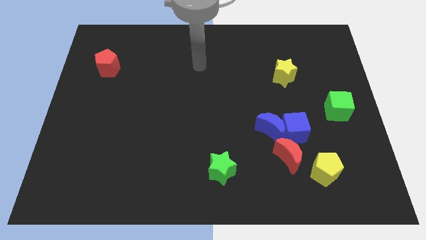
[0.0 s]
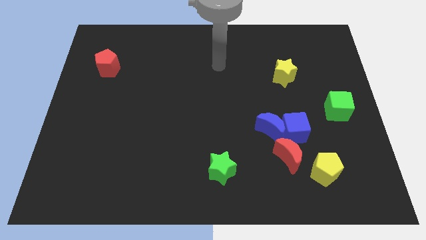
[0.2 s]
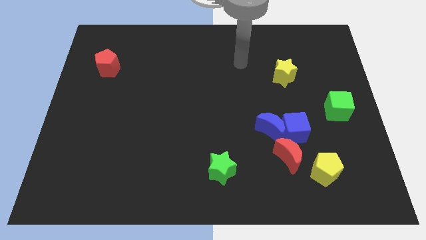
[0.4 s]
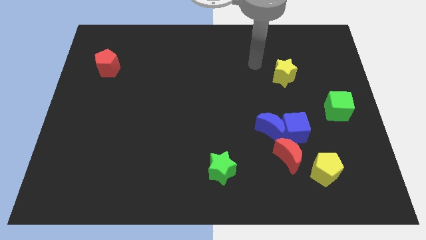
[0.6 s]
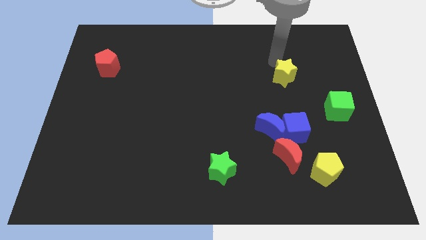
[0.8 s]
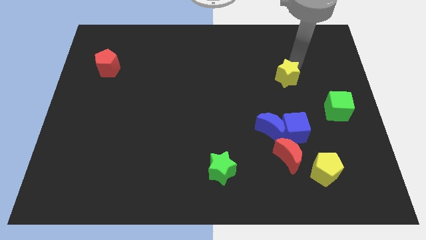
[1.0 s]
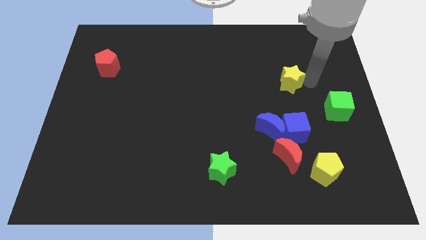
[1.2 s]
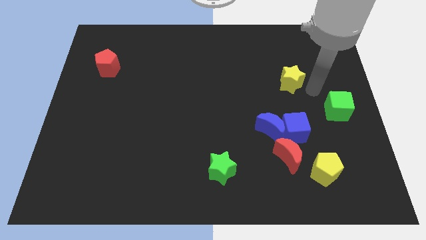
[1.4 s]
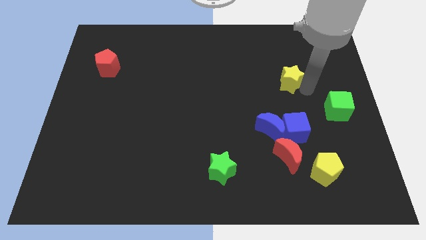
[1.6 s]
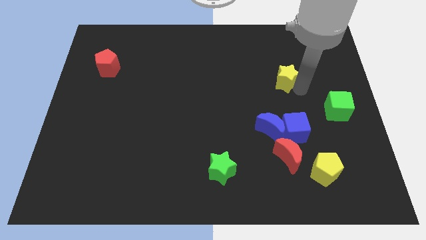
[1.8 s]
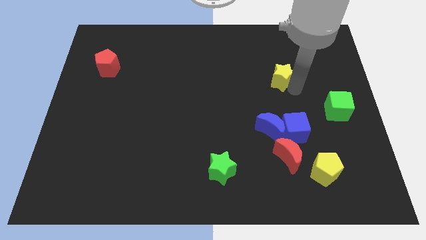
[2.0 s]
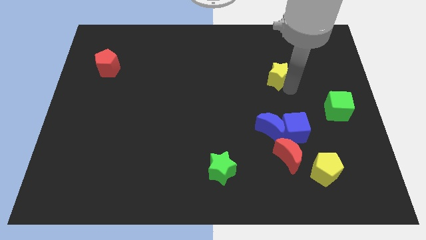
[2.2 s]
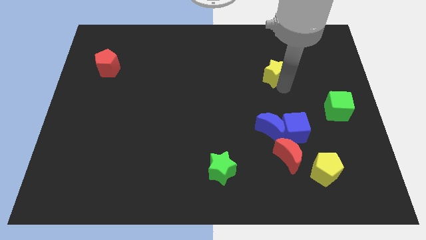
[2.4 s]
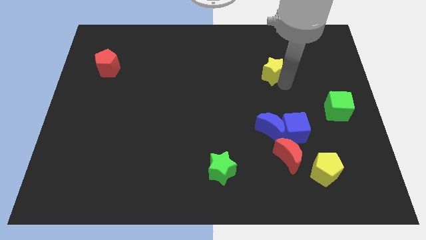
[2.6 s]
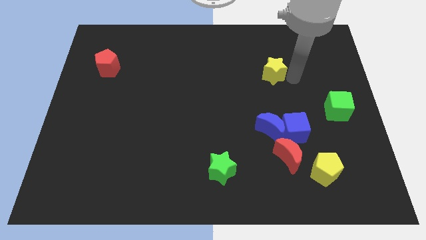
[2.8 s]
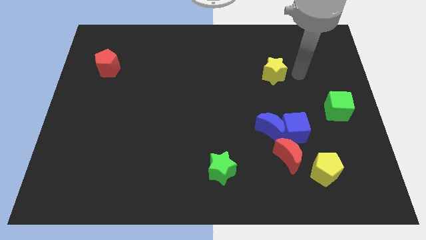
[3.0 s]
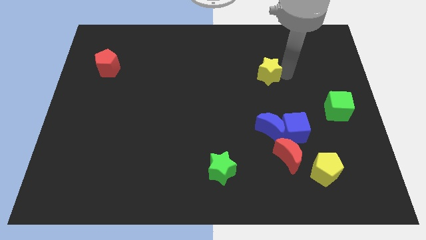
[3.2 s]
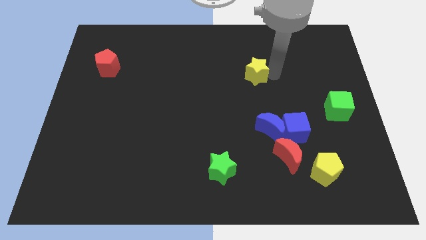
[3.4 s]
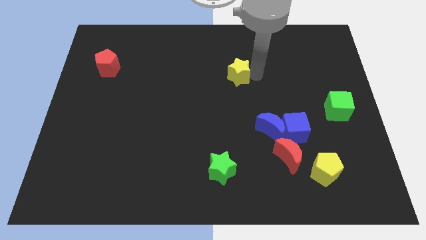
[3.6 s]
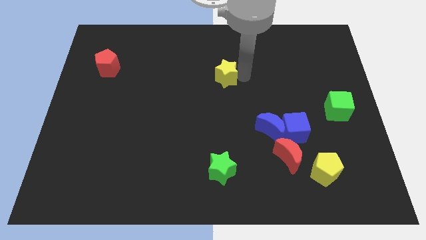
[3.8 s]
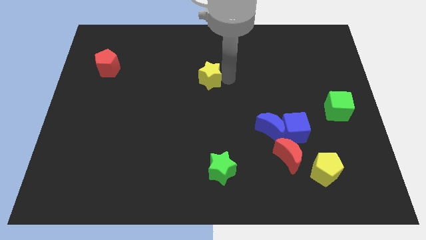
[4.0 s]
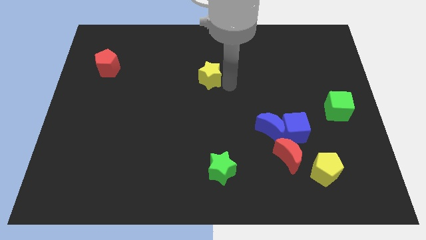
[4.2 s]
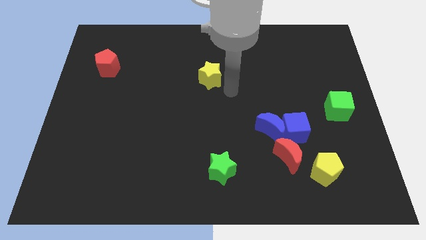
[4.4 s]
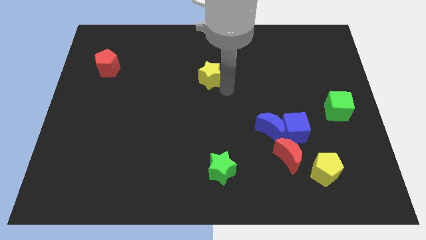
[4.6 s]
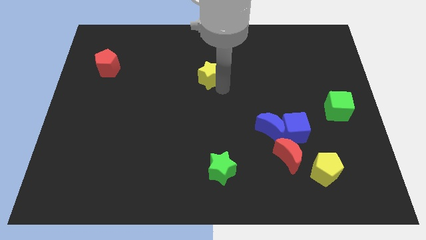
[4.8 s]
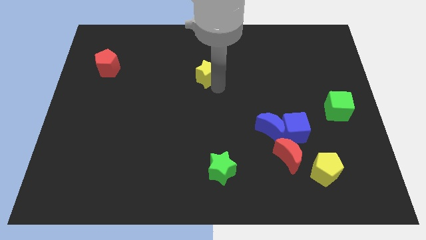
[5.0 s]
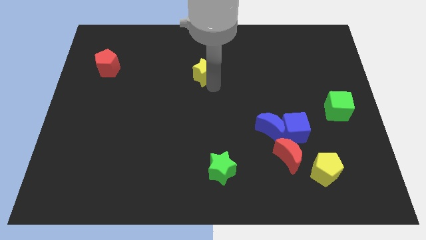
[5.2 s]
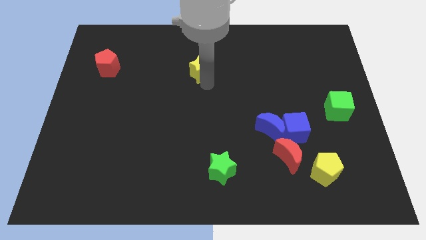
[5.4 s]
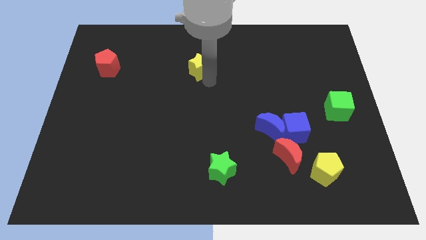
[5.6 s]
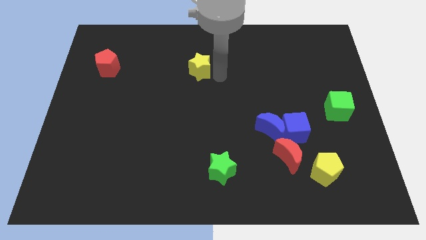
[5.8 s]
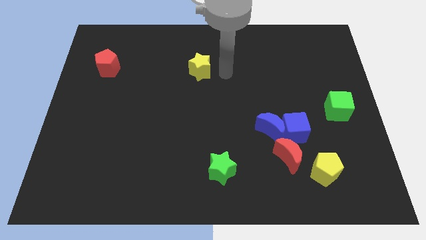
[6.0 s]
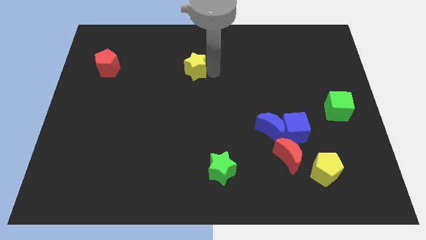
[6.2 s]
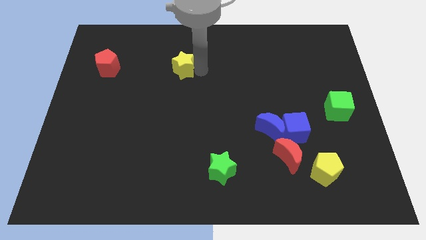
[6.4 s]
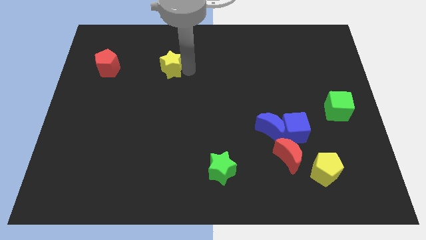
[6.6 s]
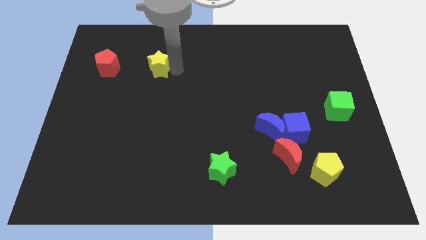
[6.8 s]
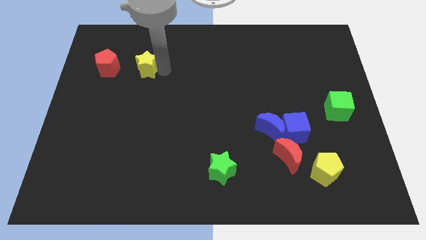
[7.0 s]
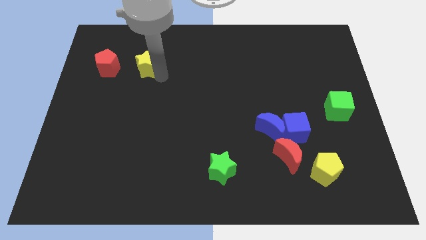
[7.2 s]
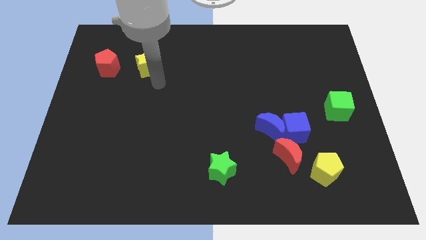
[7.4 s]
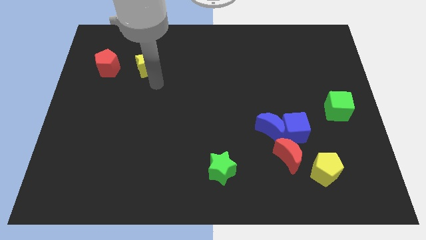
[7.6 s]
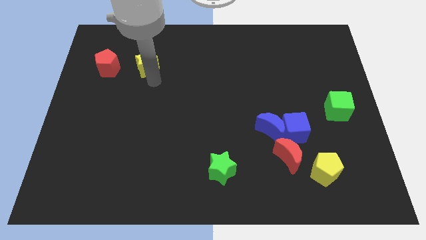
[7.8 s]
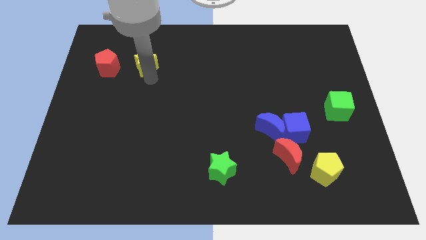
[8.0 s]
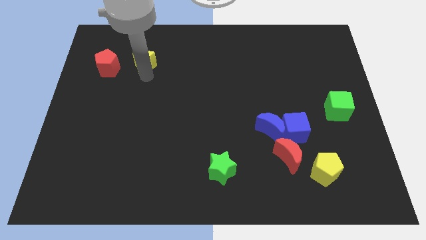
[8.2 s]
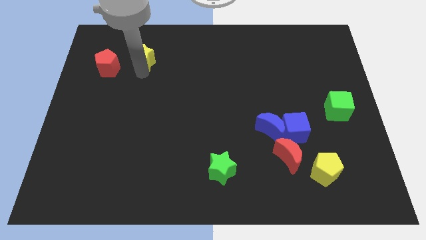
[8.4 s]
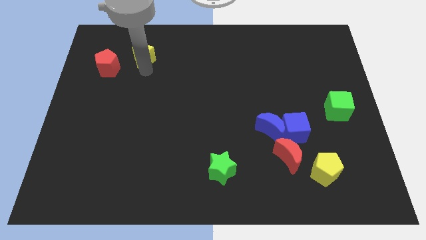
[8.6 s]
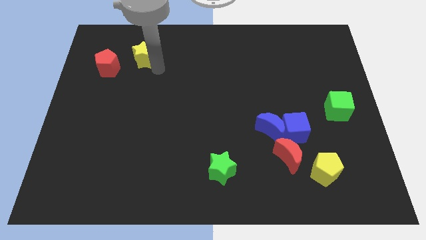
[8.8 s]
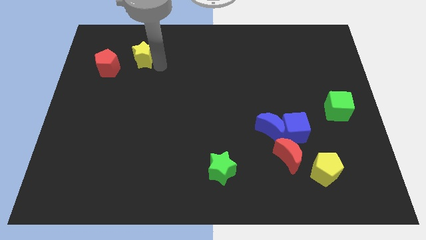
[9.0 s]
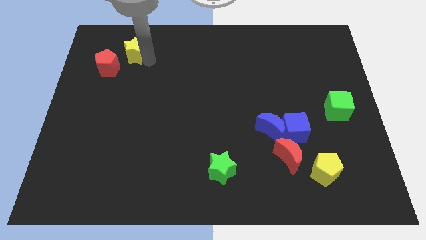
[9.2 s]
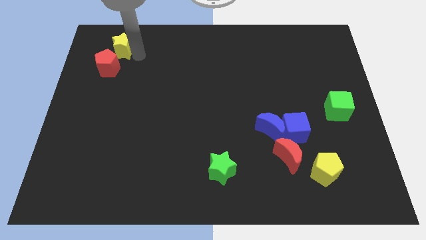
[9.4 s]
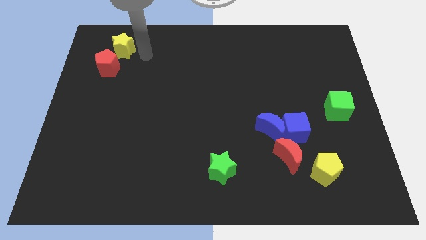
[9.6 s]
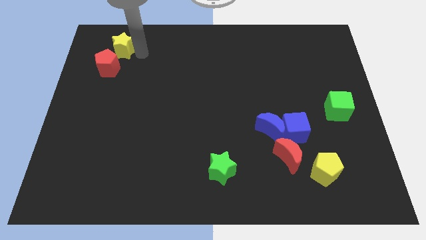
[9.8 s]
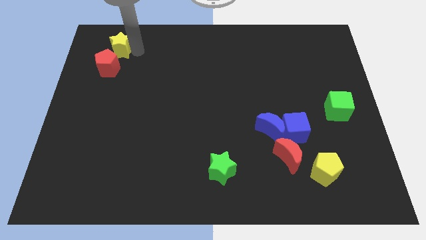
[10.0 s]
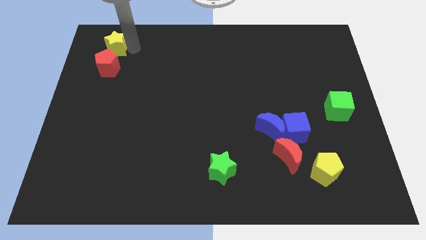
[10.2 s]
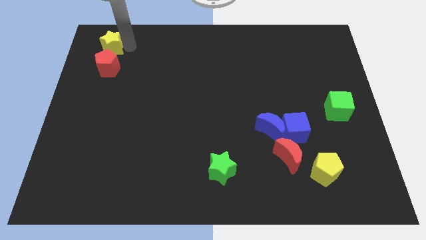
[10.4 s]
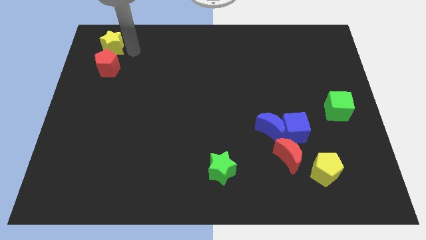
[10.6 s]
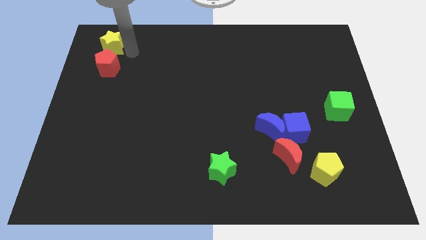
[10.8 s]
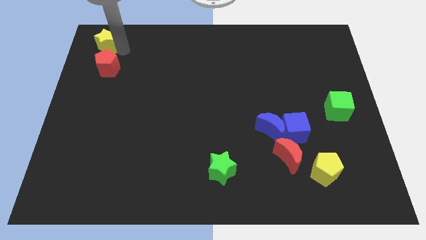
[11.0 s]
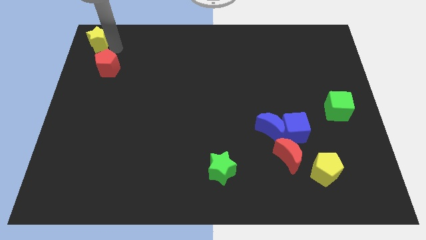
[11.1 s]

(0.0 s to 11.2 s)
put the yellow star to the top left of the board
